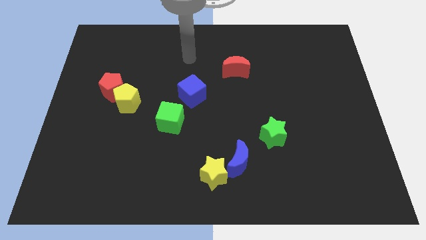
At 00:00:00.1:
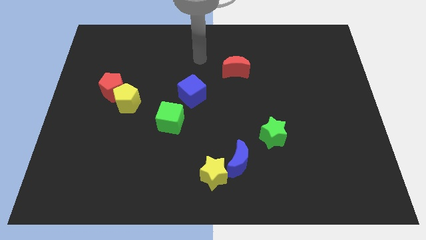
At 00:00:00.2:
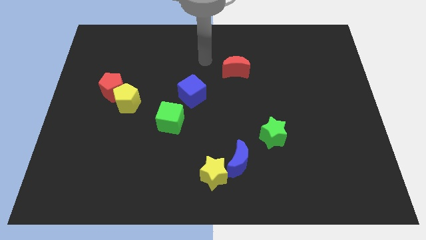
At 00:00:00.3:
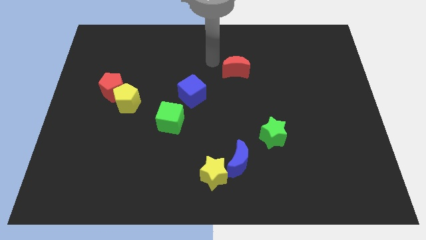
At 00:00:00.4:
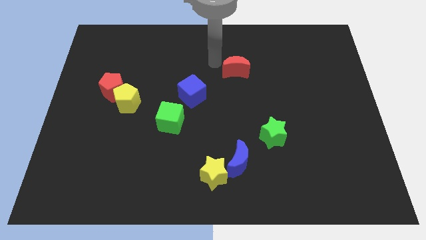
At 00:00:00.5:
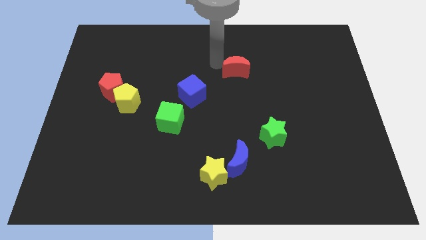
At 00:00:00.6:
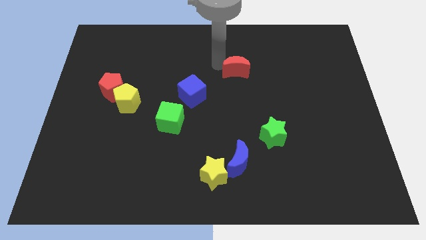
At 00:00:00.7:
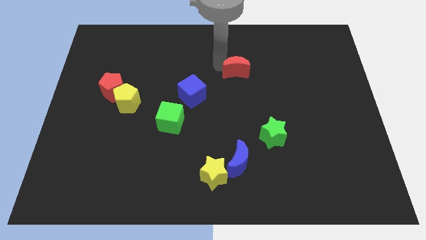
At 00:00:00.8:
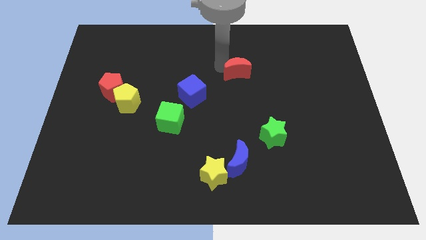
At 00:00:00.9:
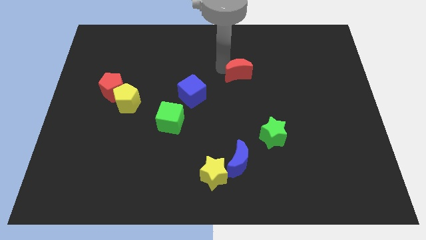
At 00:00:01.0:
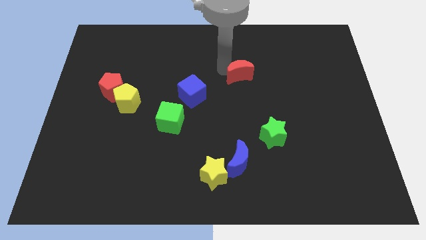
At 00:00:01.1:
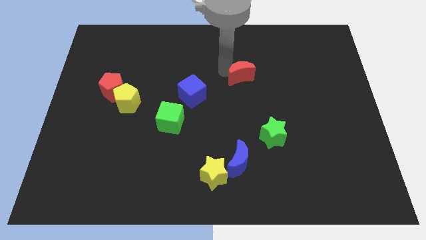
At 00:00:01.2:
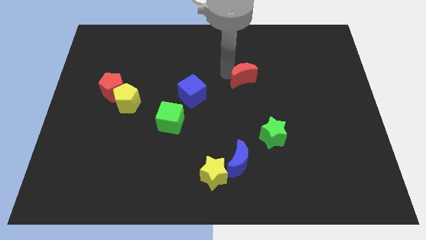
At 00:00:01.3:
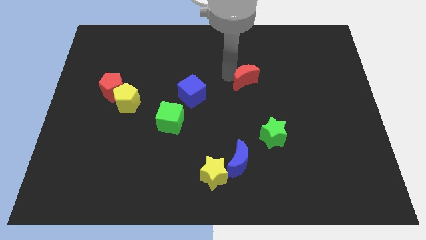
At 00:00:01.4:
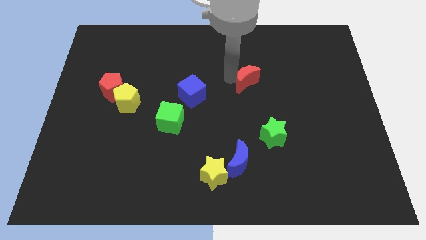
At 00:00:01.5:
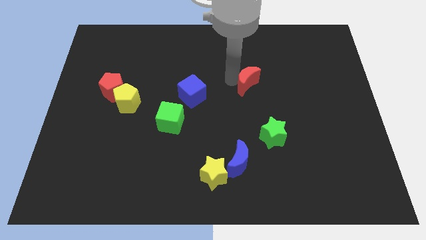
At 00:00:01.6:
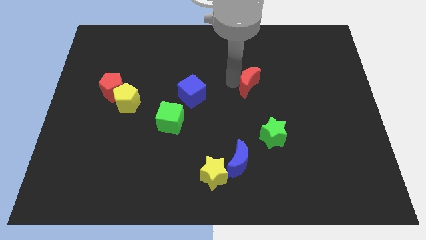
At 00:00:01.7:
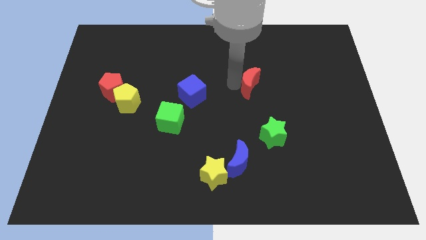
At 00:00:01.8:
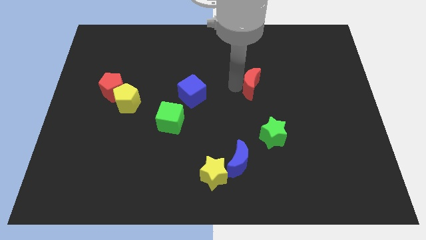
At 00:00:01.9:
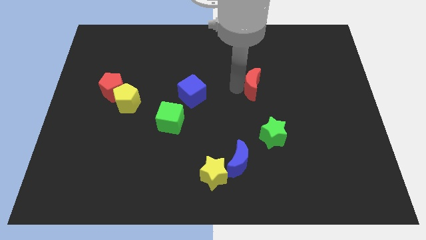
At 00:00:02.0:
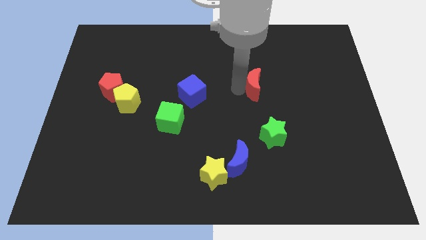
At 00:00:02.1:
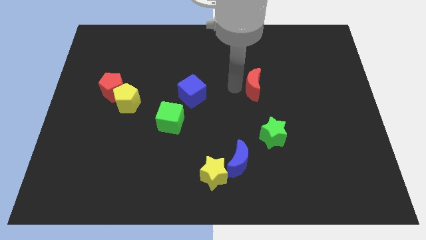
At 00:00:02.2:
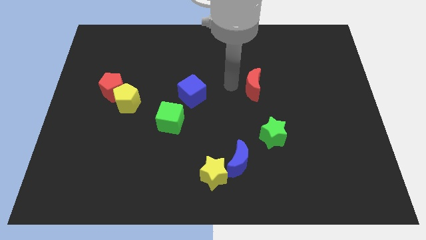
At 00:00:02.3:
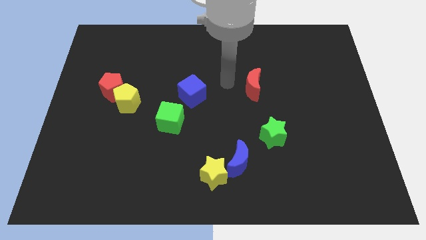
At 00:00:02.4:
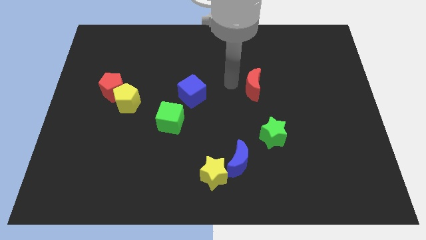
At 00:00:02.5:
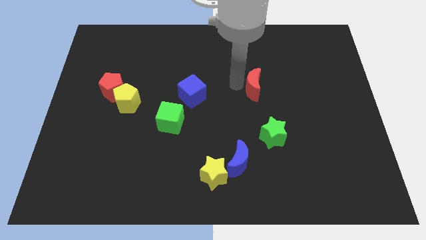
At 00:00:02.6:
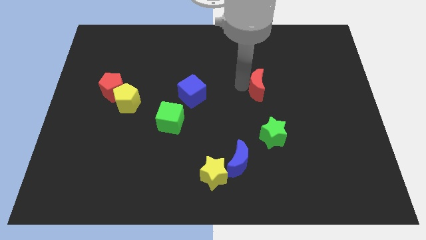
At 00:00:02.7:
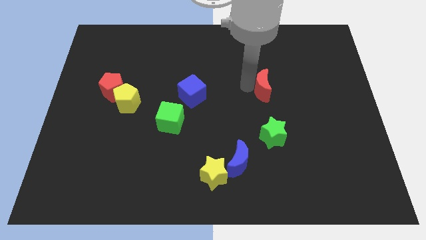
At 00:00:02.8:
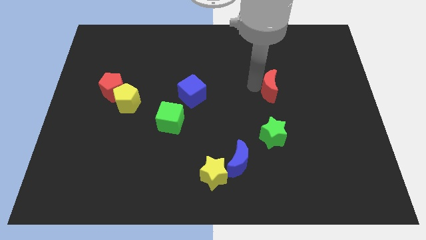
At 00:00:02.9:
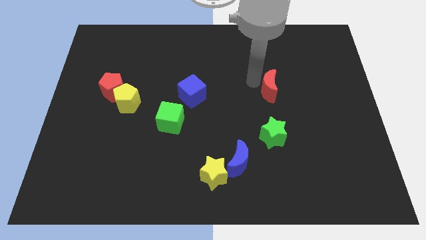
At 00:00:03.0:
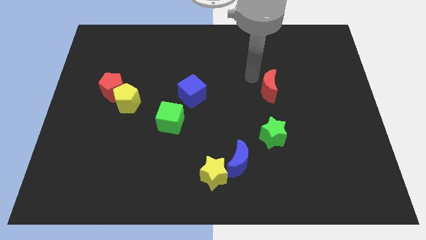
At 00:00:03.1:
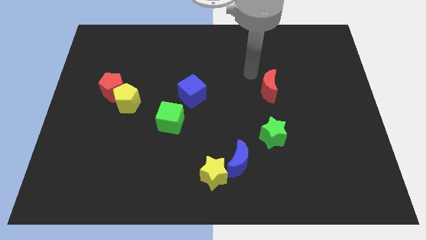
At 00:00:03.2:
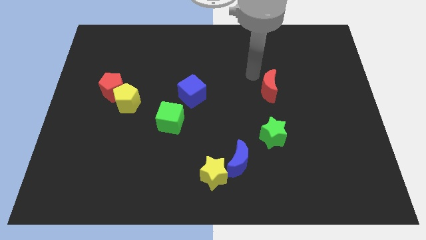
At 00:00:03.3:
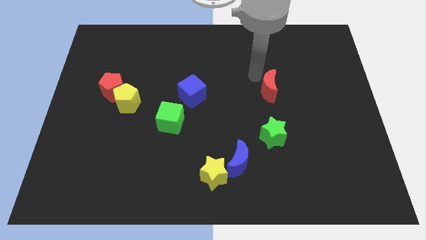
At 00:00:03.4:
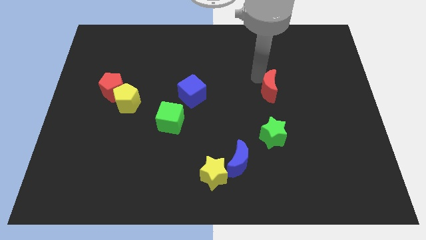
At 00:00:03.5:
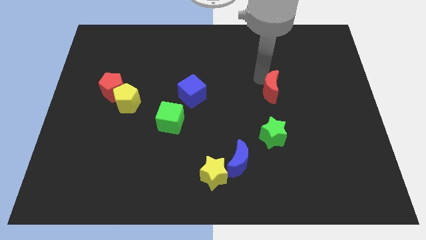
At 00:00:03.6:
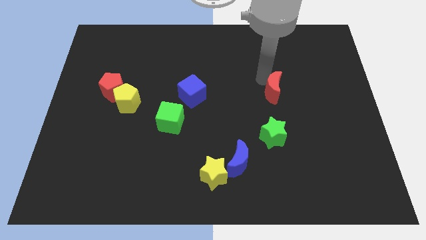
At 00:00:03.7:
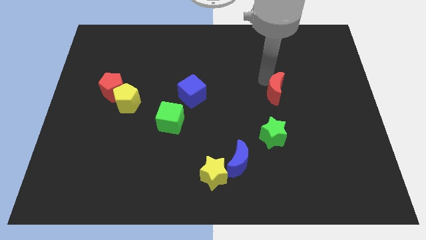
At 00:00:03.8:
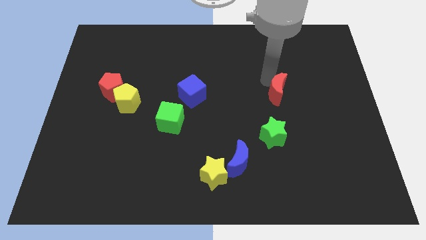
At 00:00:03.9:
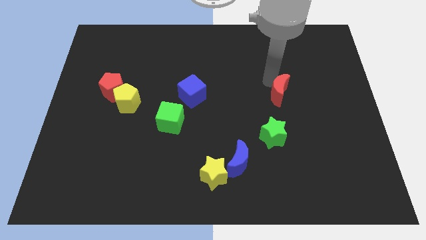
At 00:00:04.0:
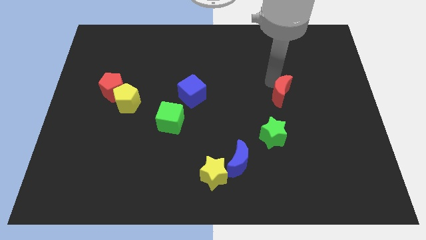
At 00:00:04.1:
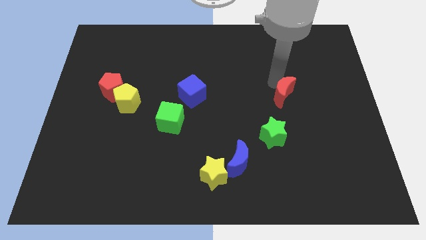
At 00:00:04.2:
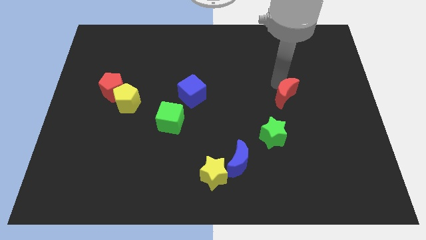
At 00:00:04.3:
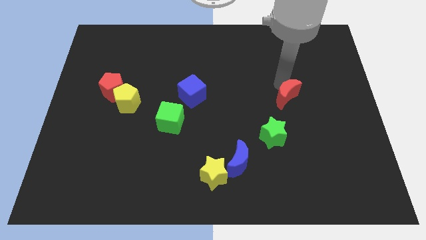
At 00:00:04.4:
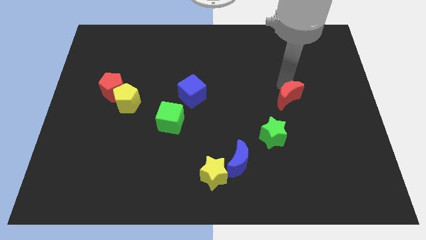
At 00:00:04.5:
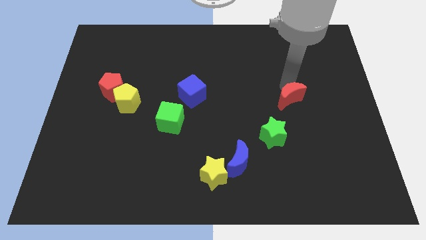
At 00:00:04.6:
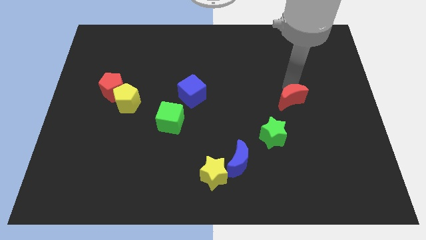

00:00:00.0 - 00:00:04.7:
push the red moon to the top right side of the green star

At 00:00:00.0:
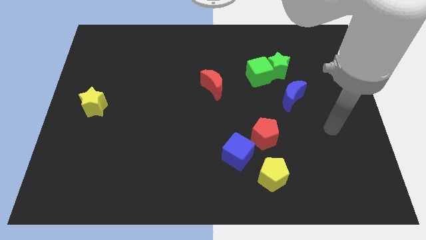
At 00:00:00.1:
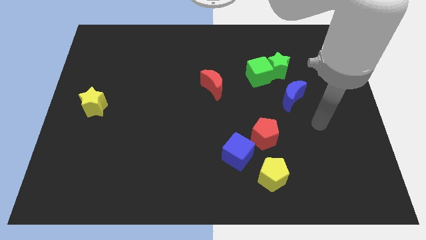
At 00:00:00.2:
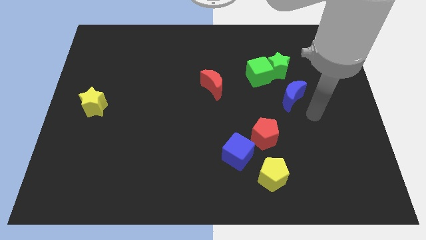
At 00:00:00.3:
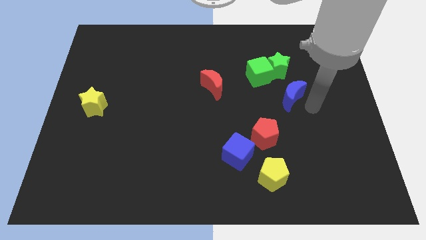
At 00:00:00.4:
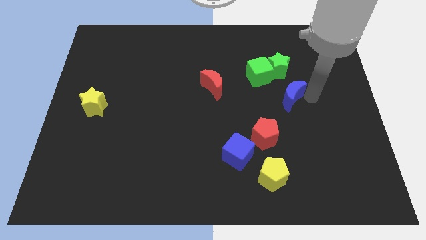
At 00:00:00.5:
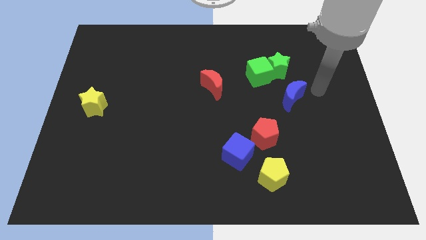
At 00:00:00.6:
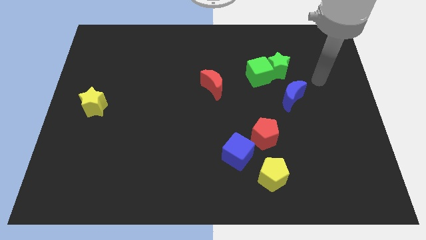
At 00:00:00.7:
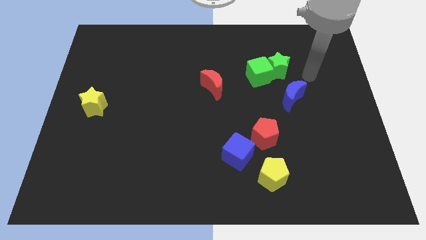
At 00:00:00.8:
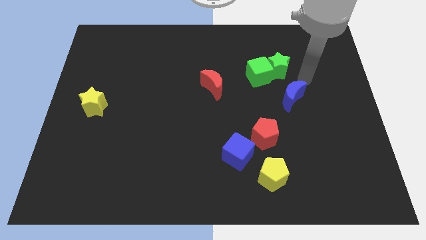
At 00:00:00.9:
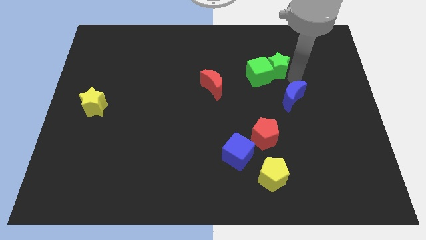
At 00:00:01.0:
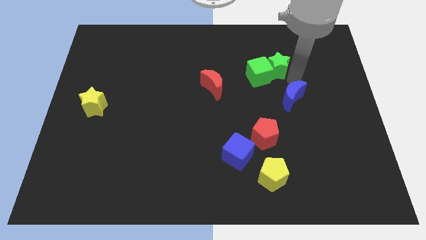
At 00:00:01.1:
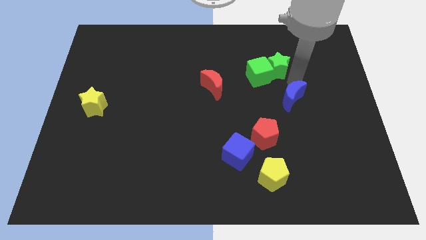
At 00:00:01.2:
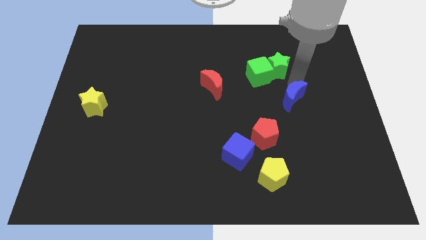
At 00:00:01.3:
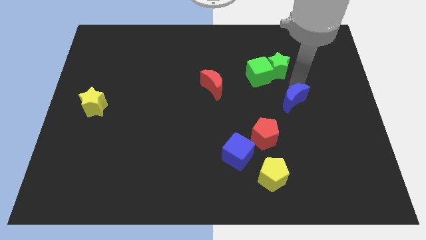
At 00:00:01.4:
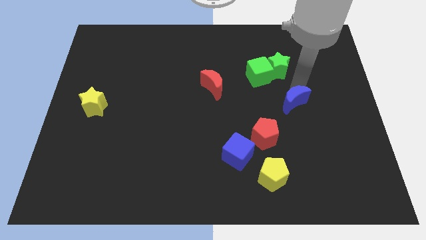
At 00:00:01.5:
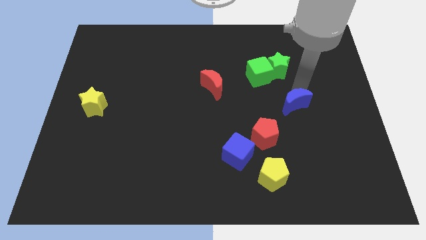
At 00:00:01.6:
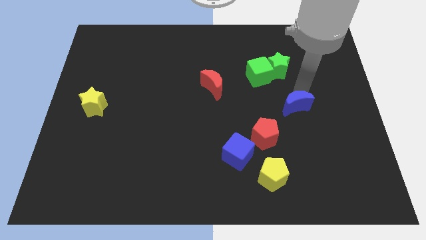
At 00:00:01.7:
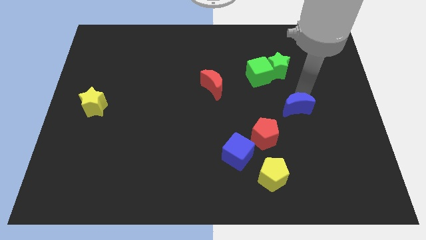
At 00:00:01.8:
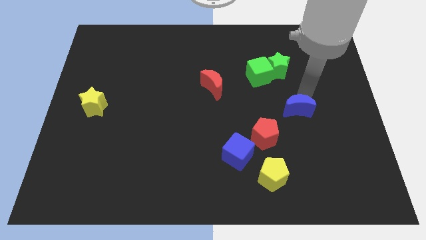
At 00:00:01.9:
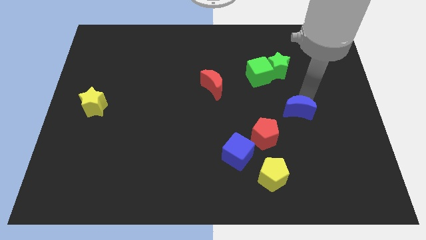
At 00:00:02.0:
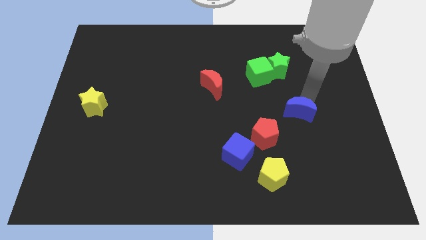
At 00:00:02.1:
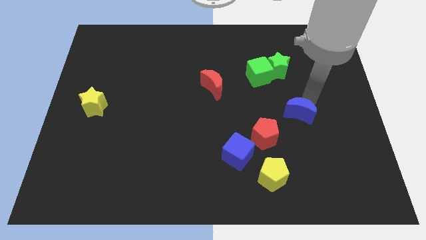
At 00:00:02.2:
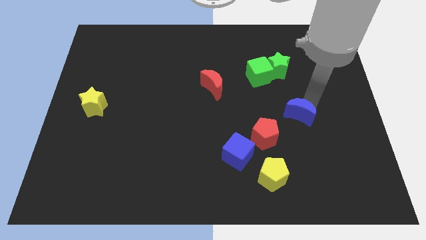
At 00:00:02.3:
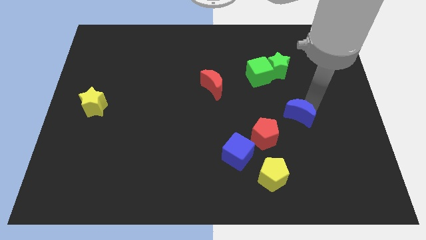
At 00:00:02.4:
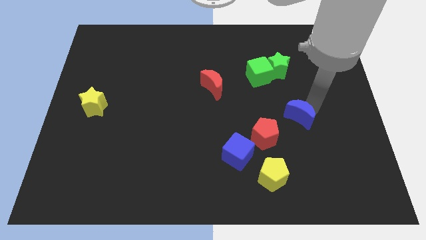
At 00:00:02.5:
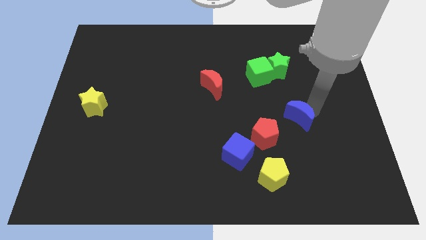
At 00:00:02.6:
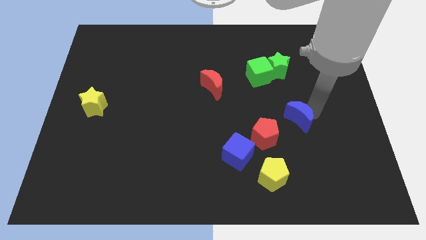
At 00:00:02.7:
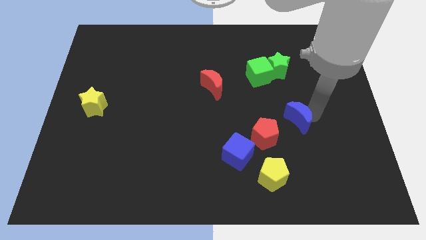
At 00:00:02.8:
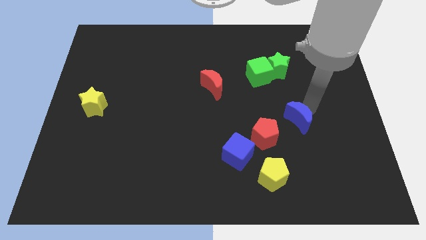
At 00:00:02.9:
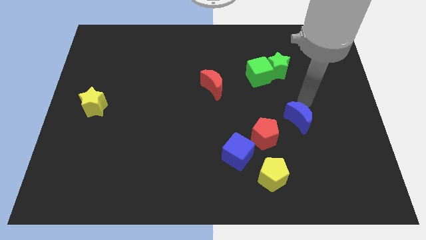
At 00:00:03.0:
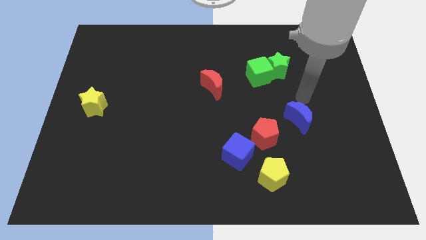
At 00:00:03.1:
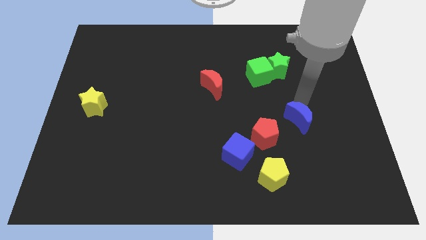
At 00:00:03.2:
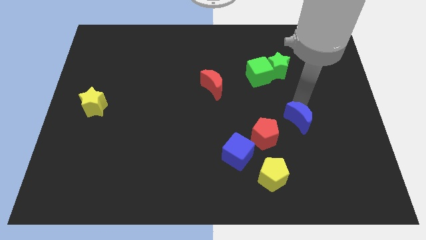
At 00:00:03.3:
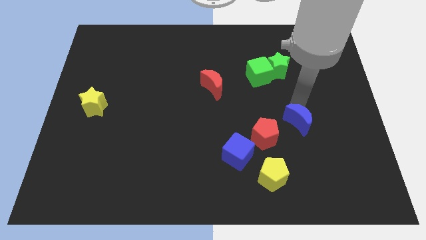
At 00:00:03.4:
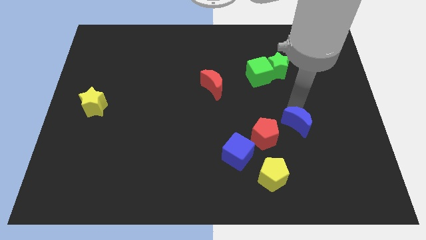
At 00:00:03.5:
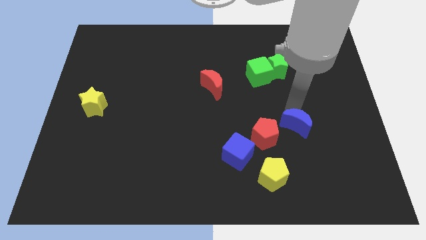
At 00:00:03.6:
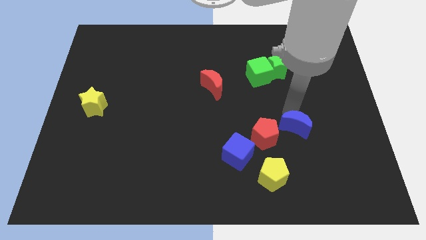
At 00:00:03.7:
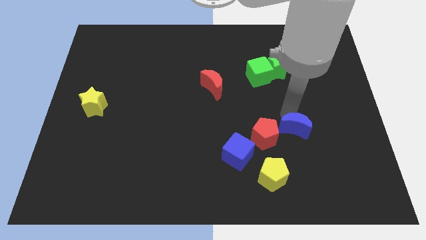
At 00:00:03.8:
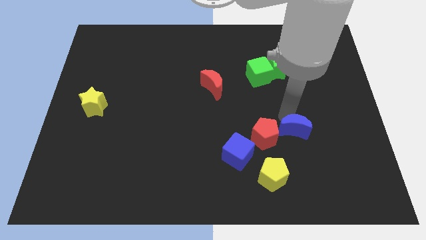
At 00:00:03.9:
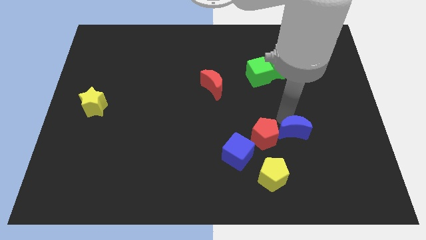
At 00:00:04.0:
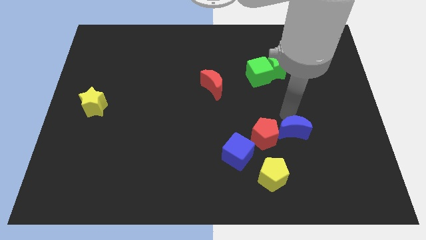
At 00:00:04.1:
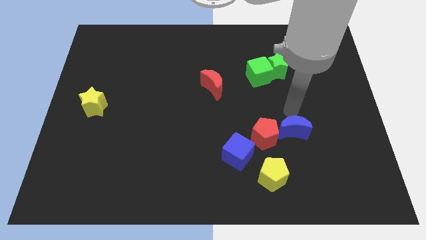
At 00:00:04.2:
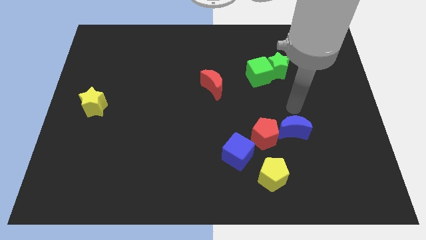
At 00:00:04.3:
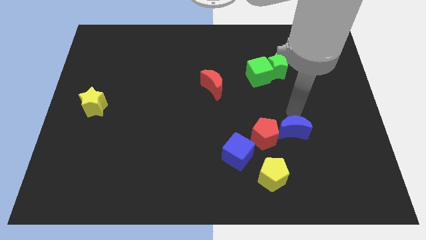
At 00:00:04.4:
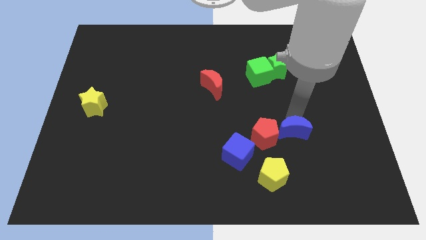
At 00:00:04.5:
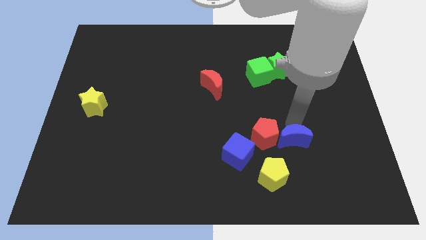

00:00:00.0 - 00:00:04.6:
put the blue moon to the bottom right of the red pentagon
